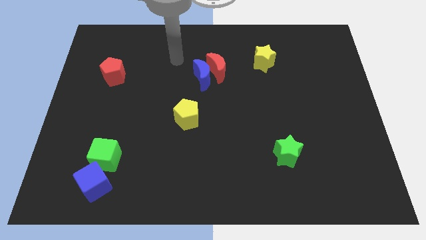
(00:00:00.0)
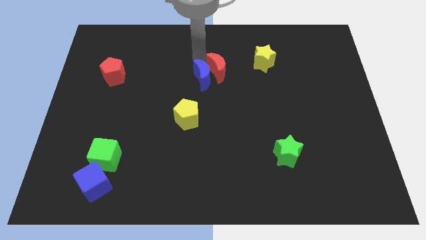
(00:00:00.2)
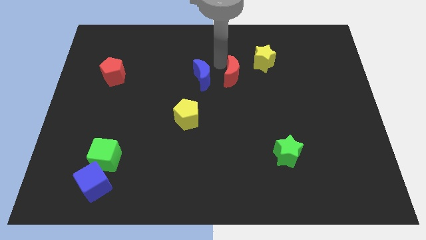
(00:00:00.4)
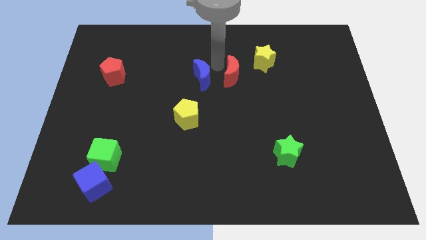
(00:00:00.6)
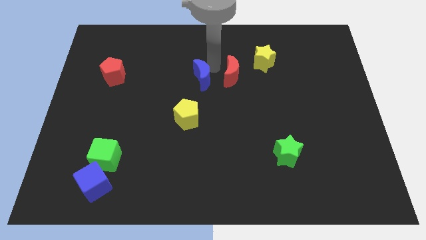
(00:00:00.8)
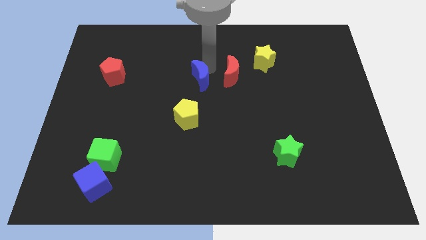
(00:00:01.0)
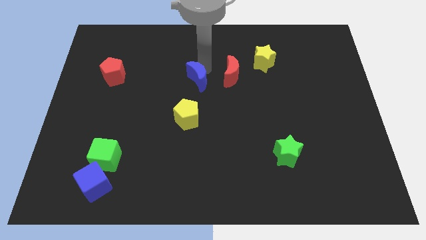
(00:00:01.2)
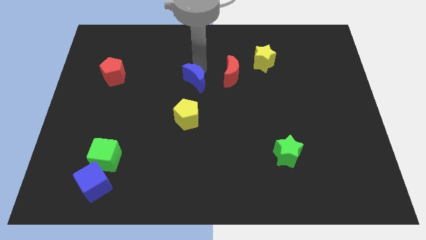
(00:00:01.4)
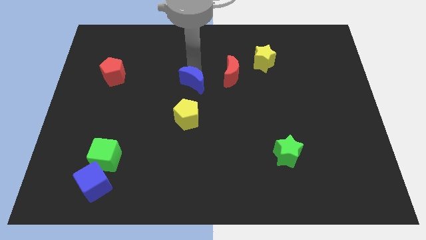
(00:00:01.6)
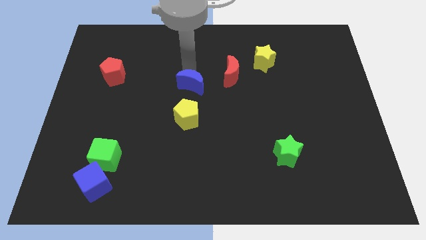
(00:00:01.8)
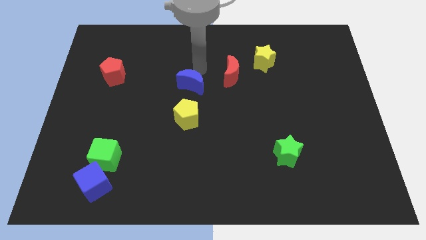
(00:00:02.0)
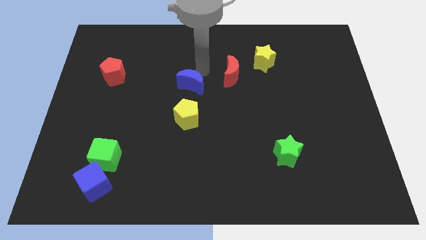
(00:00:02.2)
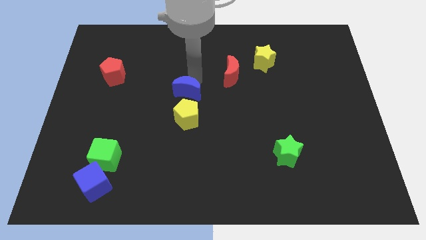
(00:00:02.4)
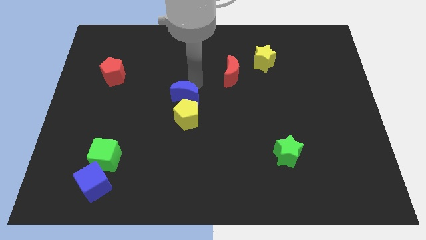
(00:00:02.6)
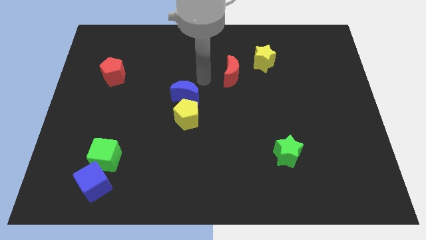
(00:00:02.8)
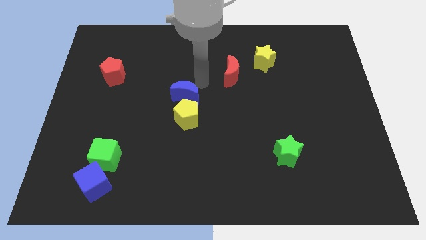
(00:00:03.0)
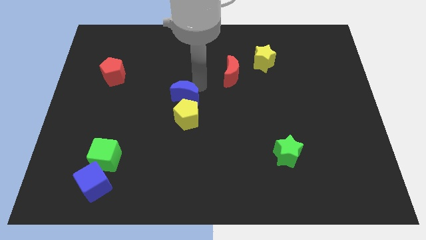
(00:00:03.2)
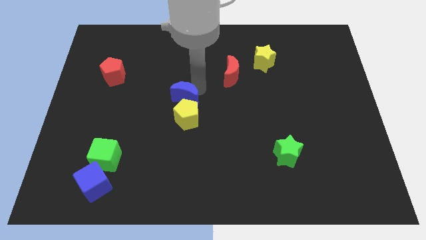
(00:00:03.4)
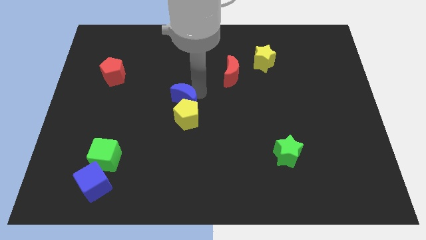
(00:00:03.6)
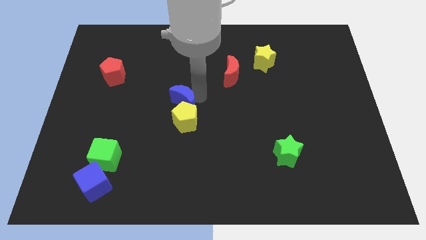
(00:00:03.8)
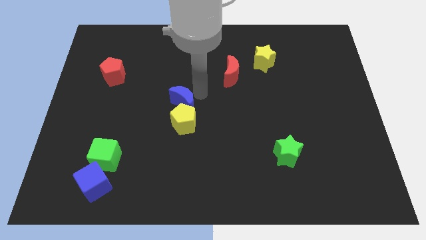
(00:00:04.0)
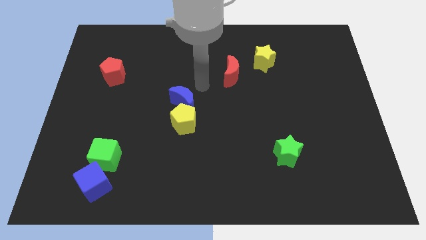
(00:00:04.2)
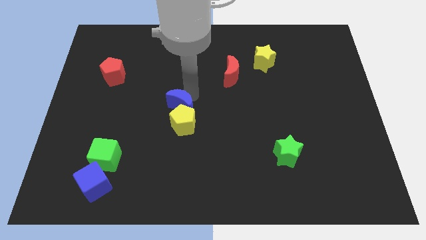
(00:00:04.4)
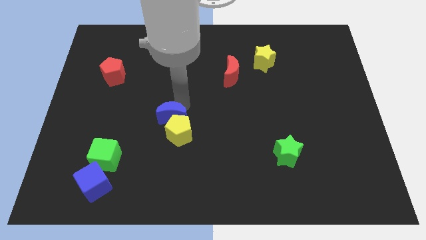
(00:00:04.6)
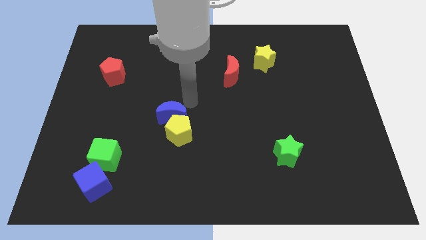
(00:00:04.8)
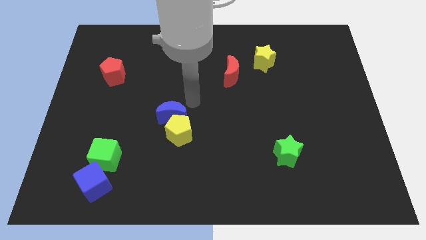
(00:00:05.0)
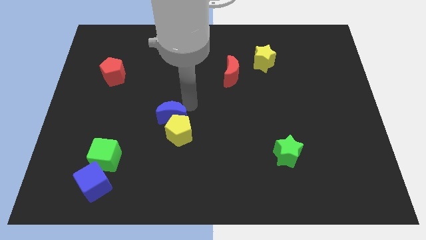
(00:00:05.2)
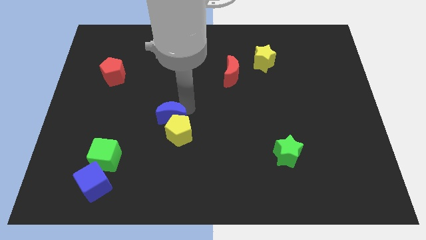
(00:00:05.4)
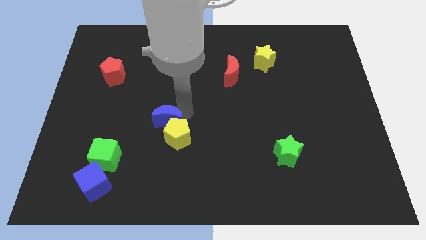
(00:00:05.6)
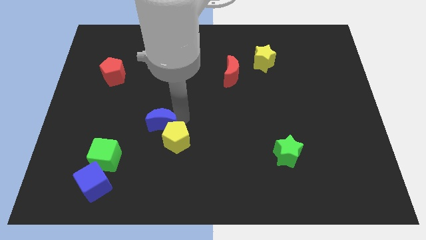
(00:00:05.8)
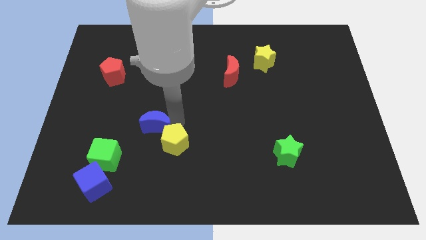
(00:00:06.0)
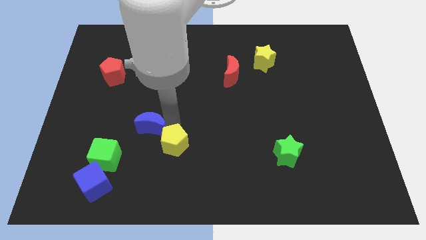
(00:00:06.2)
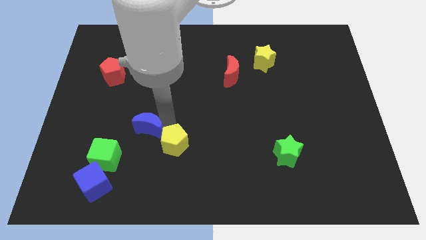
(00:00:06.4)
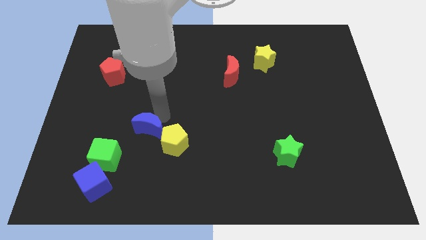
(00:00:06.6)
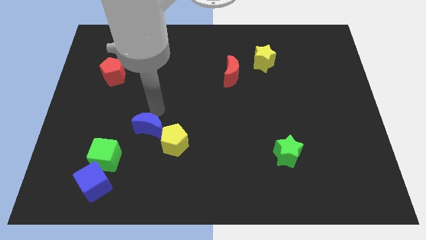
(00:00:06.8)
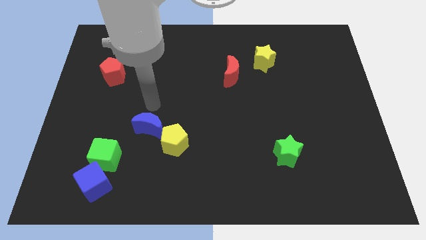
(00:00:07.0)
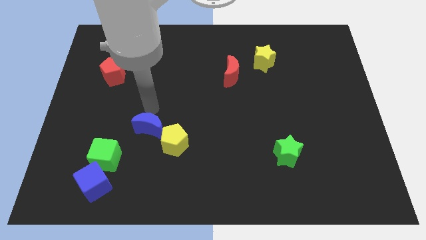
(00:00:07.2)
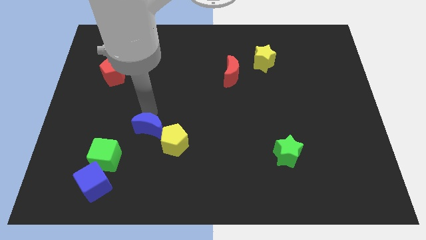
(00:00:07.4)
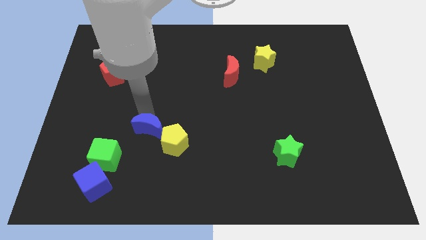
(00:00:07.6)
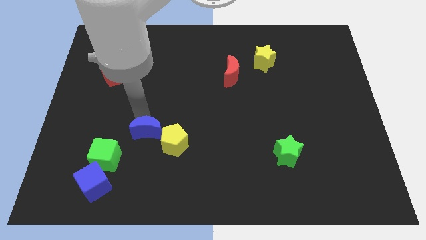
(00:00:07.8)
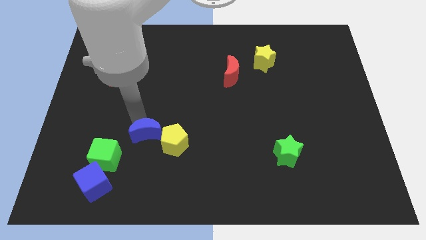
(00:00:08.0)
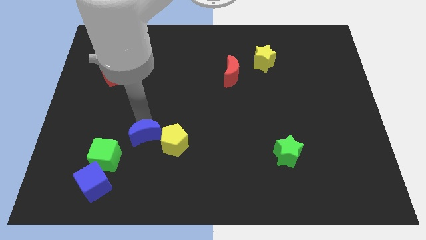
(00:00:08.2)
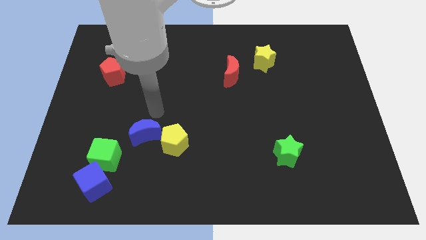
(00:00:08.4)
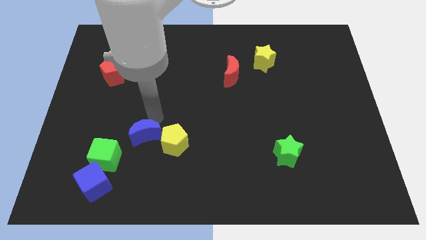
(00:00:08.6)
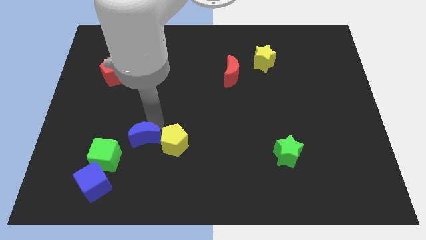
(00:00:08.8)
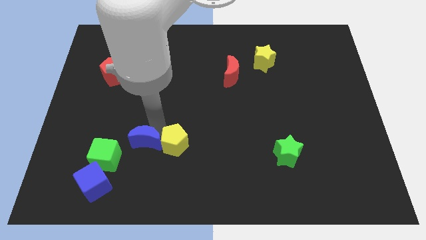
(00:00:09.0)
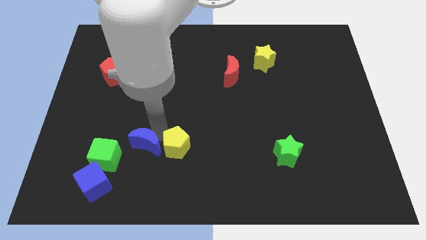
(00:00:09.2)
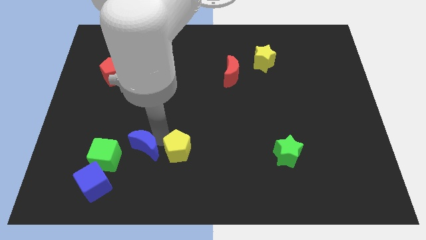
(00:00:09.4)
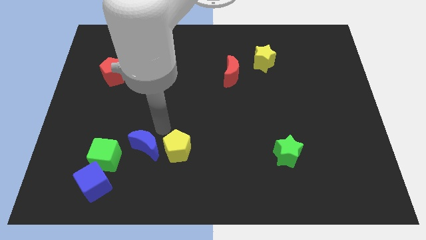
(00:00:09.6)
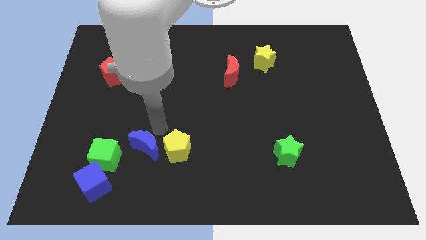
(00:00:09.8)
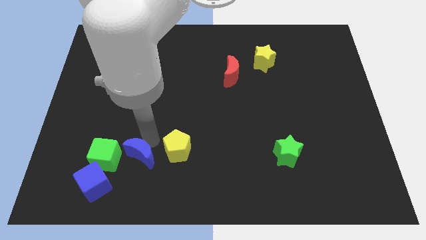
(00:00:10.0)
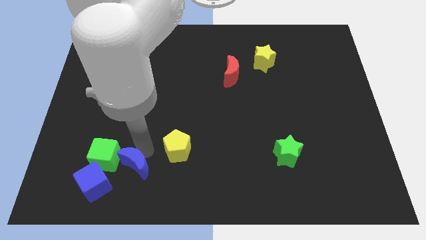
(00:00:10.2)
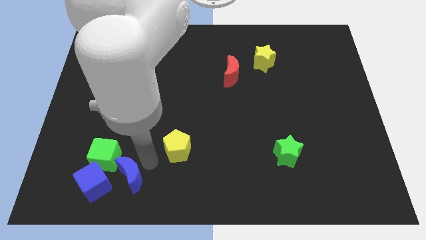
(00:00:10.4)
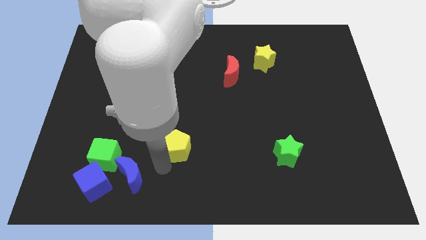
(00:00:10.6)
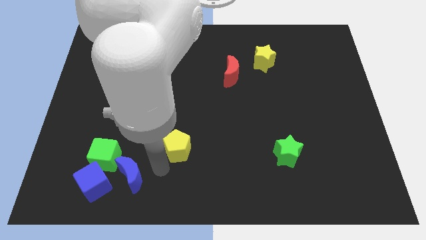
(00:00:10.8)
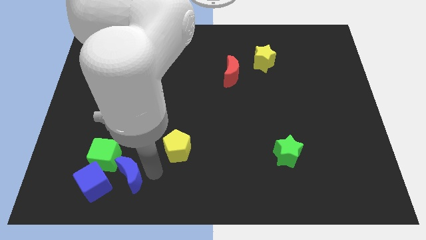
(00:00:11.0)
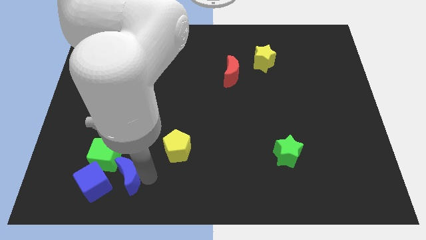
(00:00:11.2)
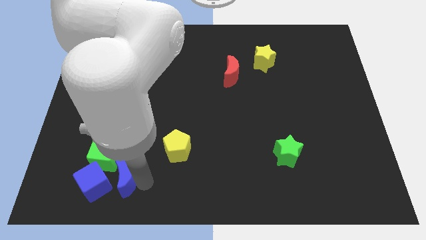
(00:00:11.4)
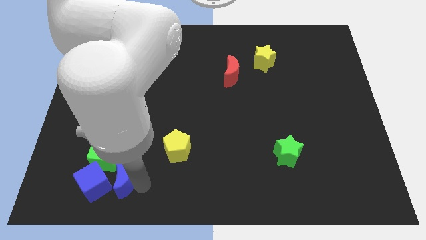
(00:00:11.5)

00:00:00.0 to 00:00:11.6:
move the blue moon to the blue cube
